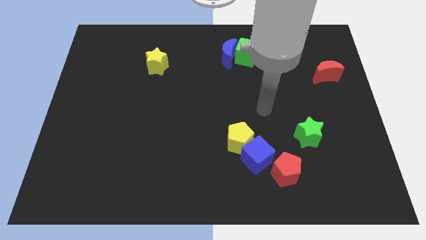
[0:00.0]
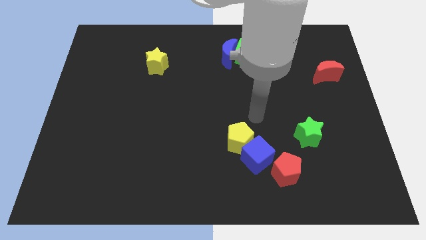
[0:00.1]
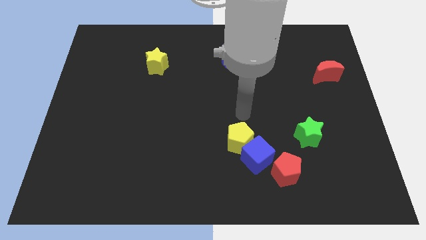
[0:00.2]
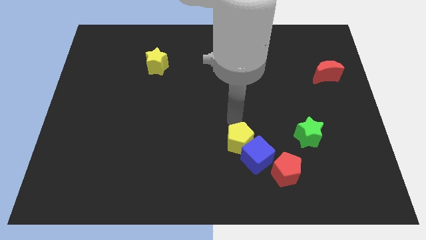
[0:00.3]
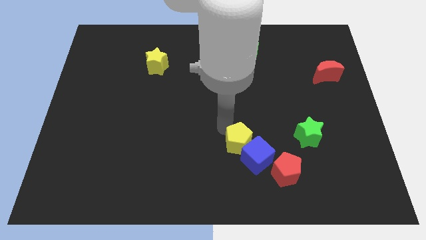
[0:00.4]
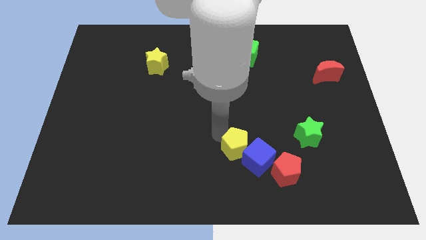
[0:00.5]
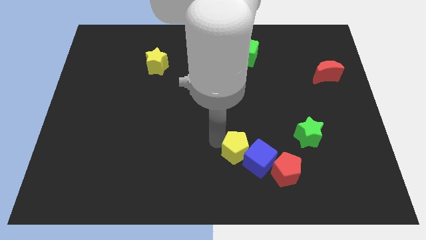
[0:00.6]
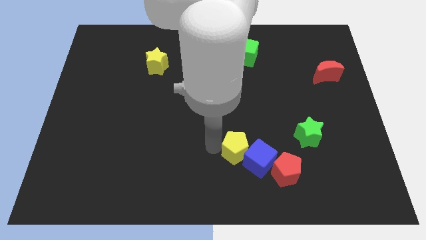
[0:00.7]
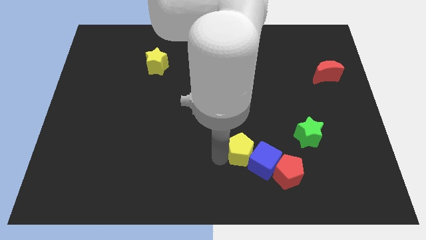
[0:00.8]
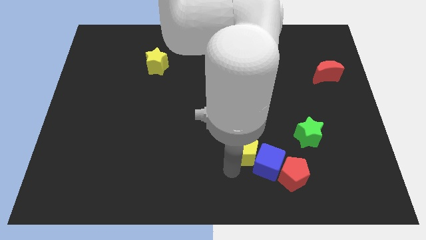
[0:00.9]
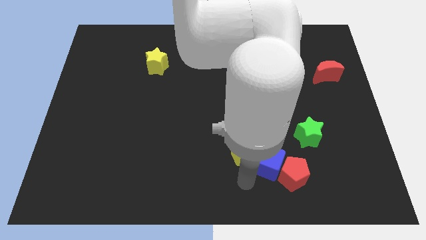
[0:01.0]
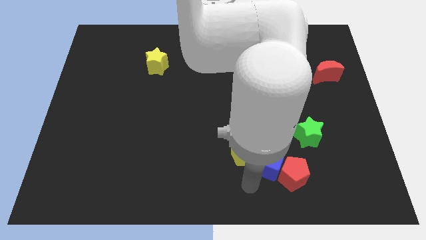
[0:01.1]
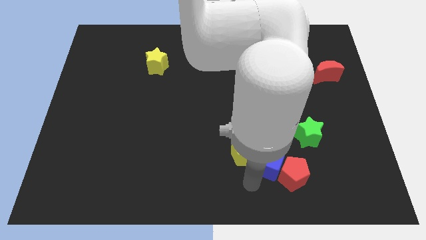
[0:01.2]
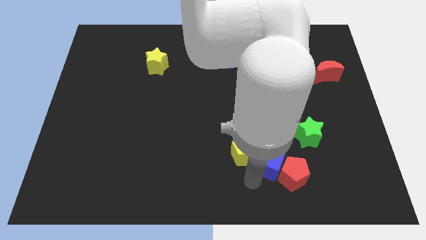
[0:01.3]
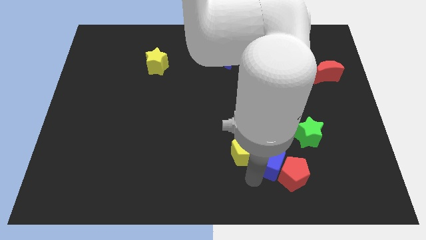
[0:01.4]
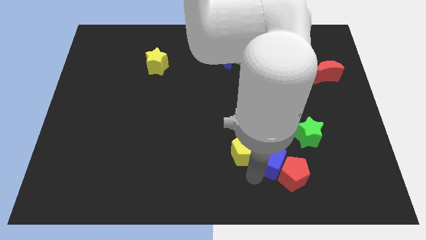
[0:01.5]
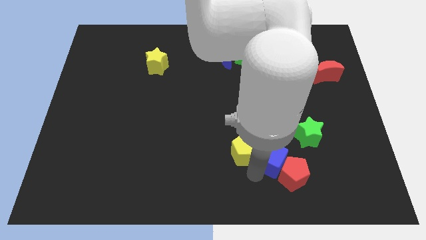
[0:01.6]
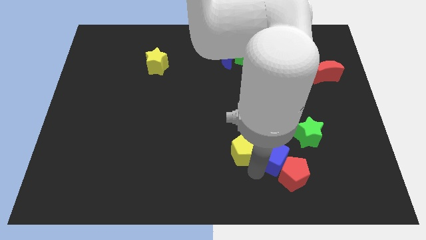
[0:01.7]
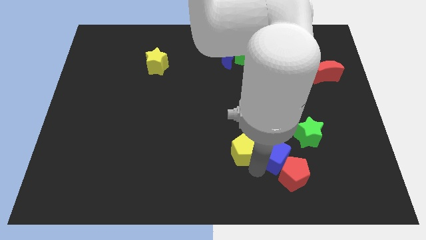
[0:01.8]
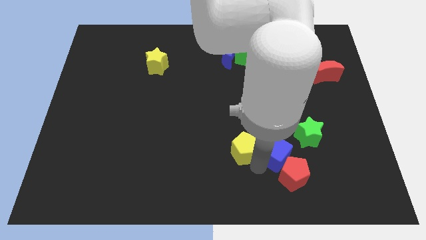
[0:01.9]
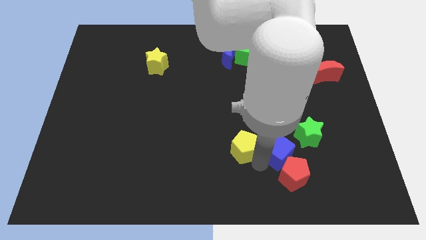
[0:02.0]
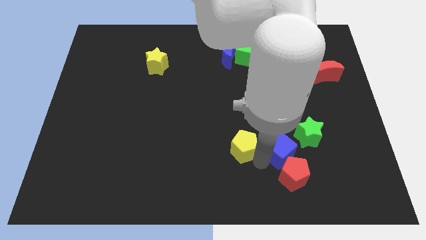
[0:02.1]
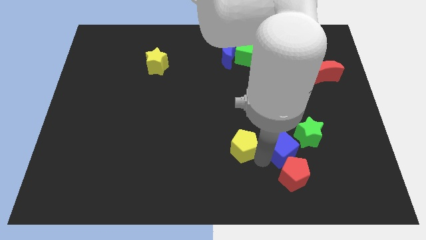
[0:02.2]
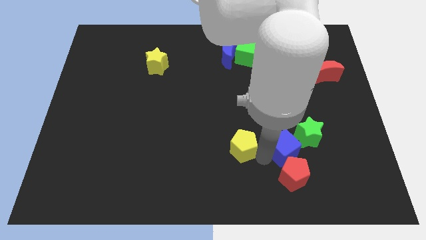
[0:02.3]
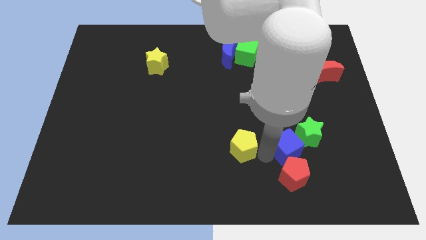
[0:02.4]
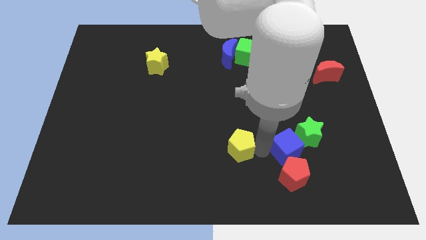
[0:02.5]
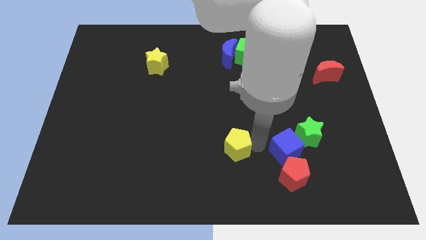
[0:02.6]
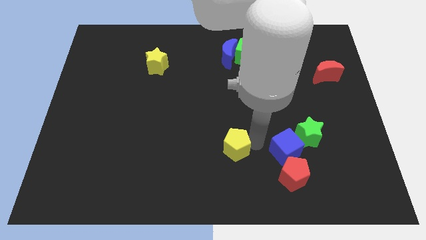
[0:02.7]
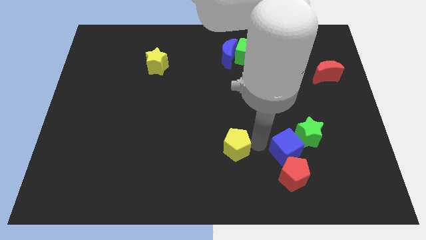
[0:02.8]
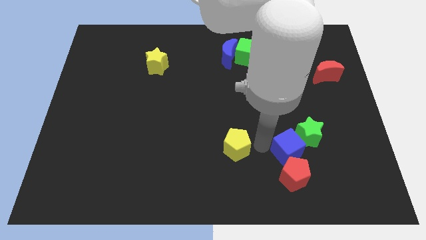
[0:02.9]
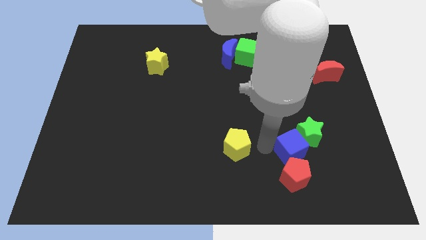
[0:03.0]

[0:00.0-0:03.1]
move the blue cube to the right a little bit

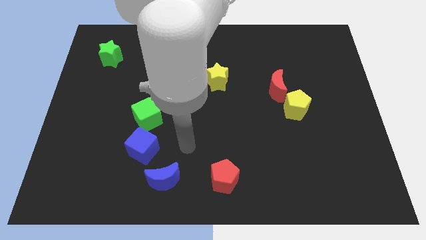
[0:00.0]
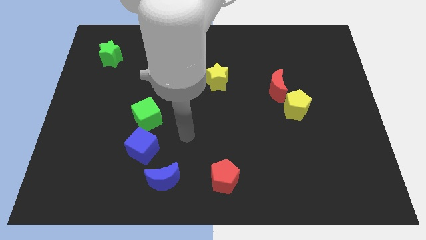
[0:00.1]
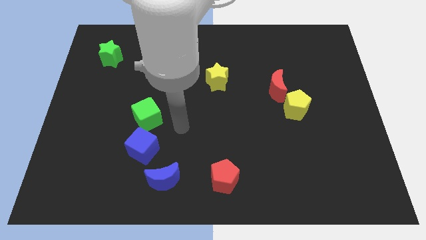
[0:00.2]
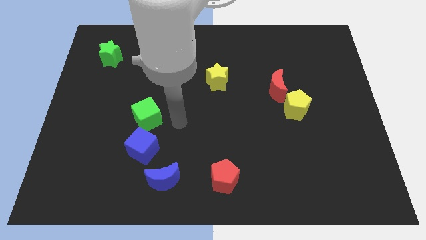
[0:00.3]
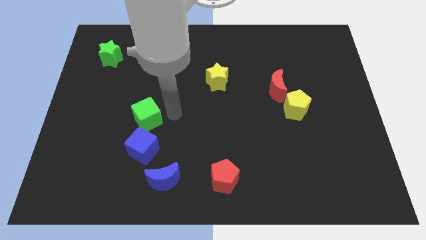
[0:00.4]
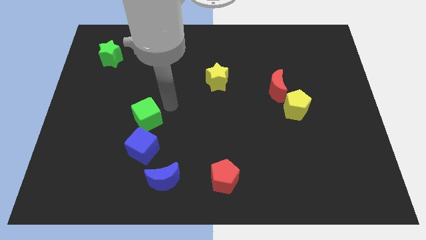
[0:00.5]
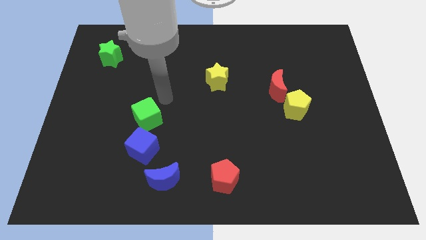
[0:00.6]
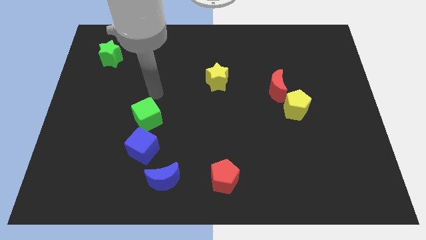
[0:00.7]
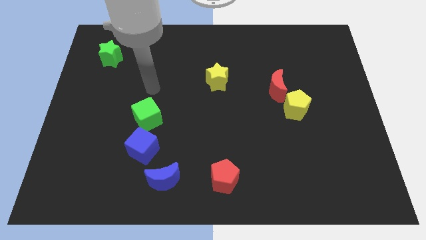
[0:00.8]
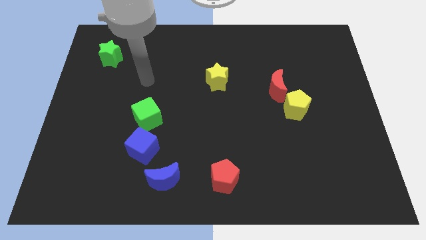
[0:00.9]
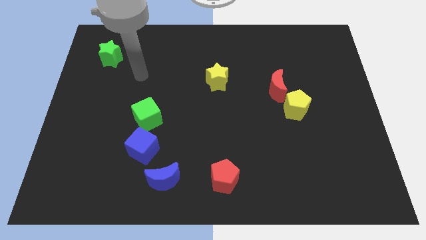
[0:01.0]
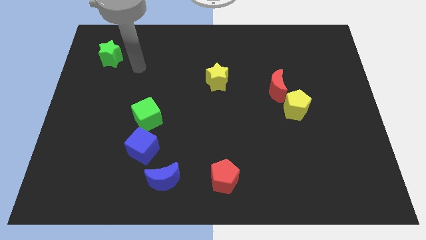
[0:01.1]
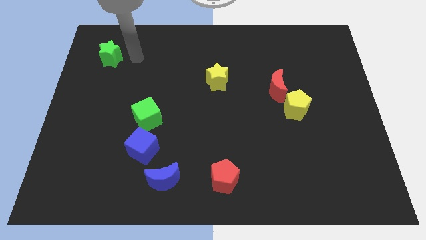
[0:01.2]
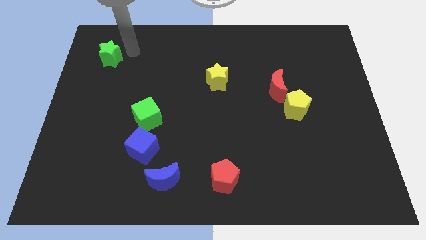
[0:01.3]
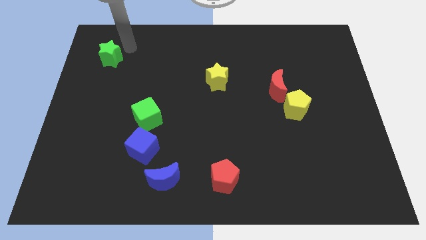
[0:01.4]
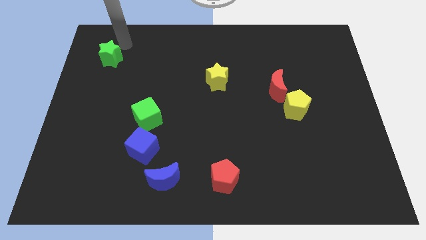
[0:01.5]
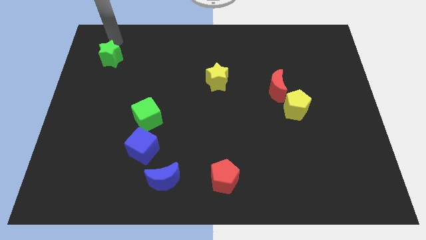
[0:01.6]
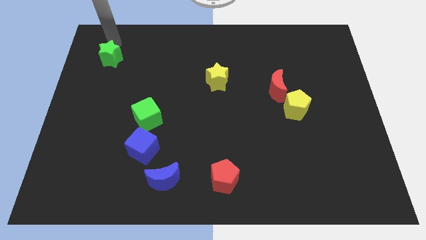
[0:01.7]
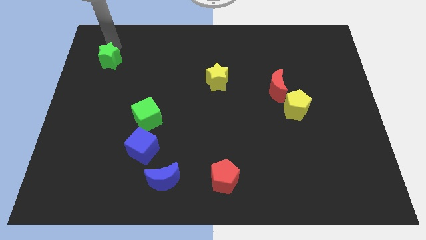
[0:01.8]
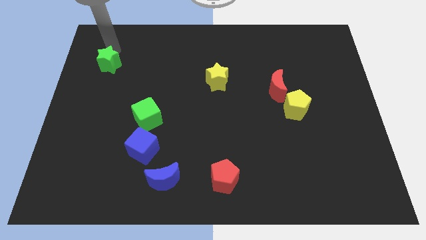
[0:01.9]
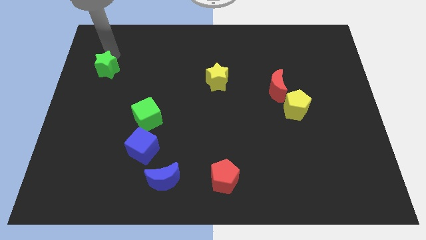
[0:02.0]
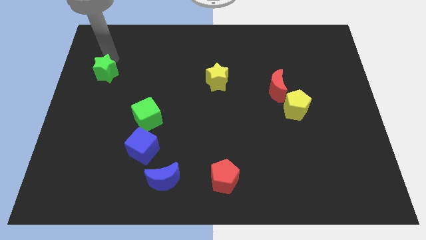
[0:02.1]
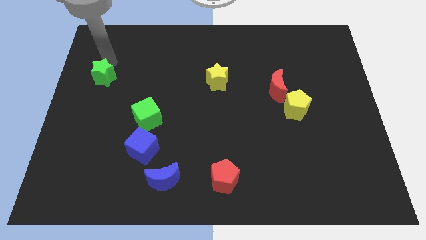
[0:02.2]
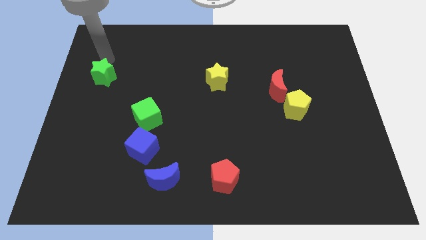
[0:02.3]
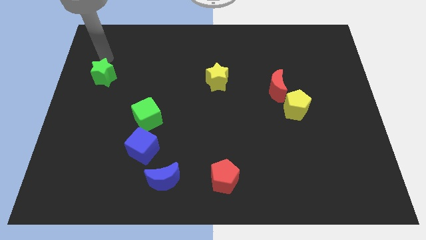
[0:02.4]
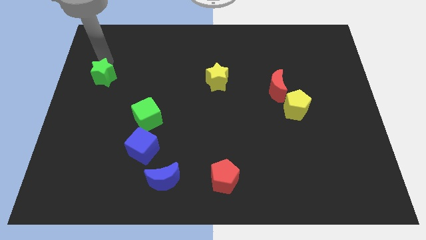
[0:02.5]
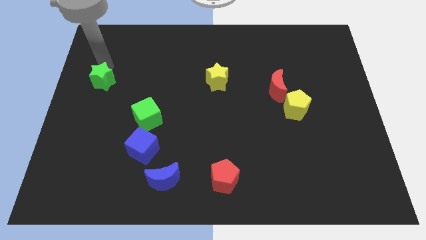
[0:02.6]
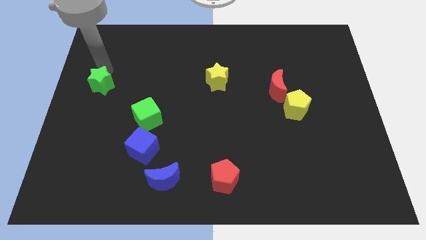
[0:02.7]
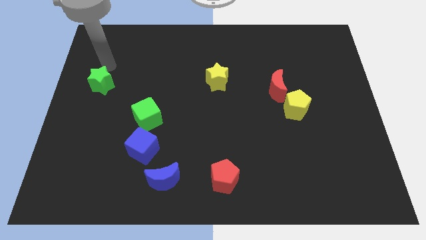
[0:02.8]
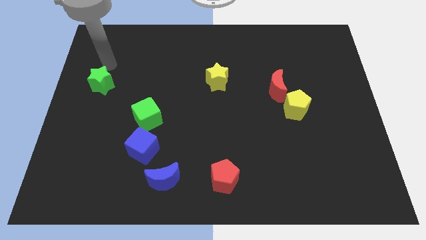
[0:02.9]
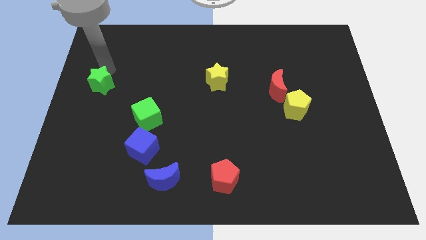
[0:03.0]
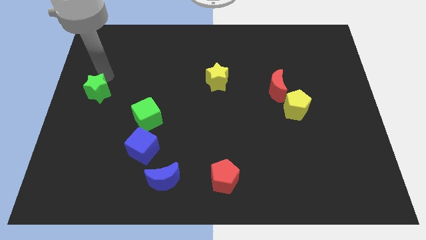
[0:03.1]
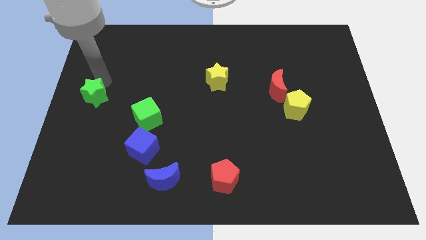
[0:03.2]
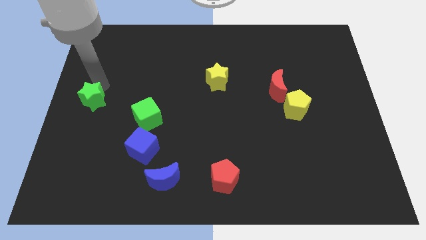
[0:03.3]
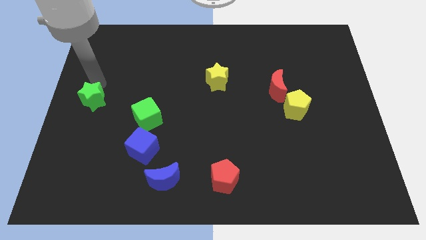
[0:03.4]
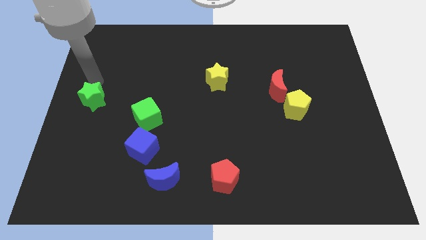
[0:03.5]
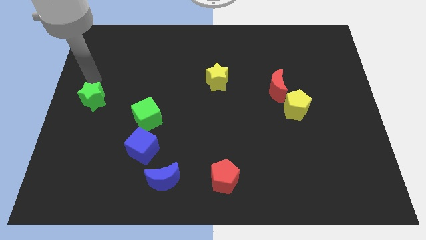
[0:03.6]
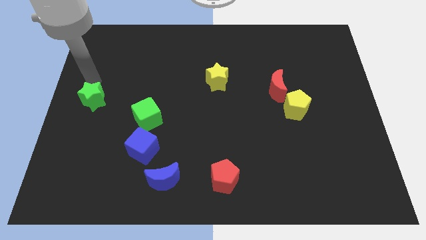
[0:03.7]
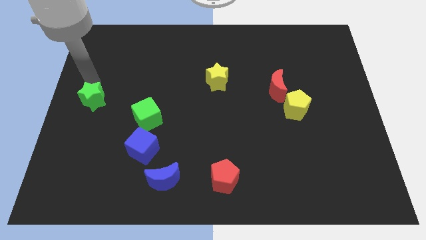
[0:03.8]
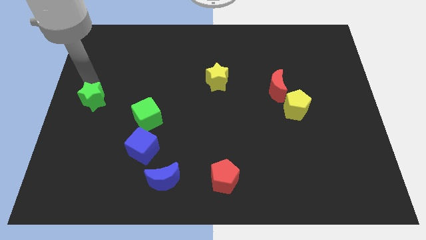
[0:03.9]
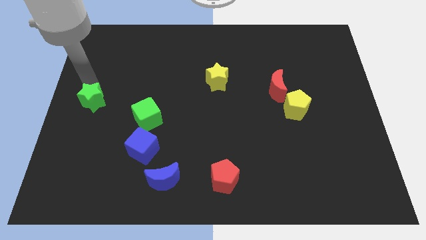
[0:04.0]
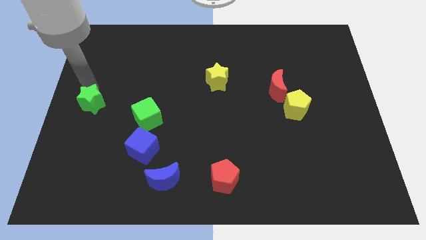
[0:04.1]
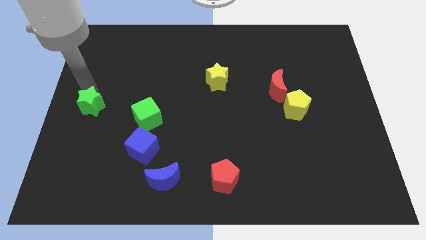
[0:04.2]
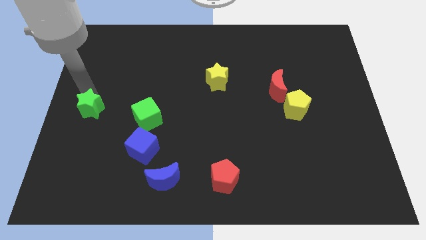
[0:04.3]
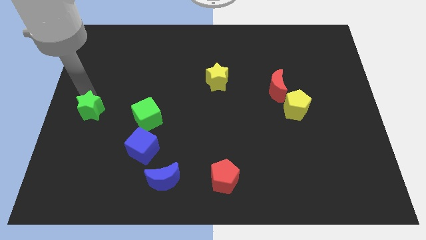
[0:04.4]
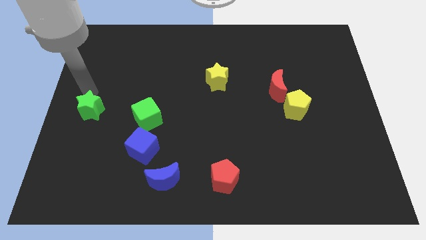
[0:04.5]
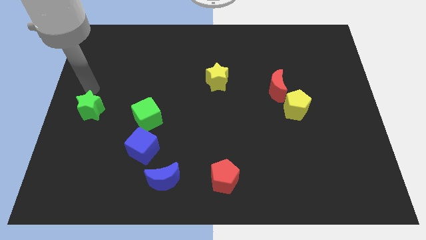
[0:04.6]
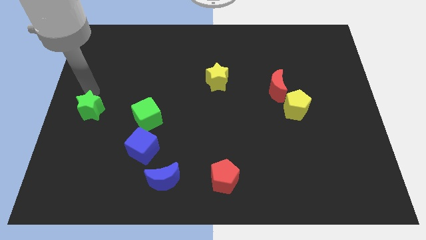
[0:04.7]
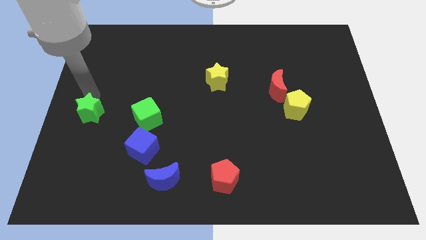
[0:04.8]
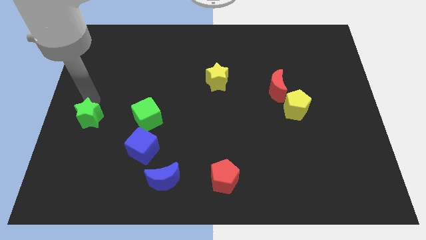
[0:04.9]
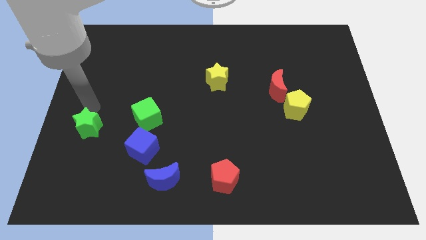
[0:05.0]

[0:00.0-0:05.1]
move the green star downwards
